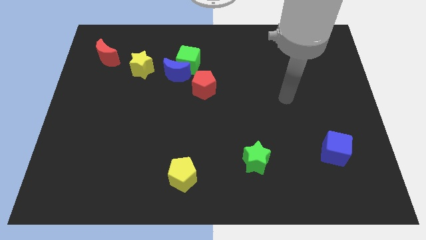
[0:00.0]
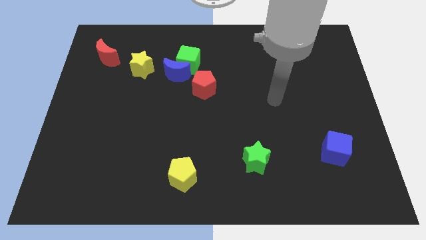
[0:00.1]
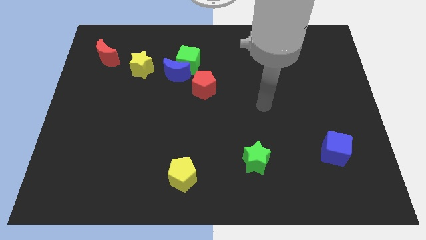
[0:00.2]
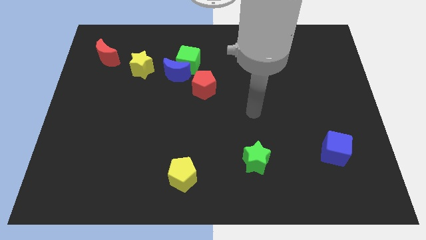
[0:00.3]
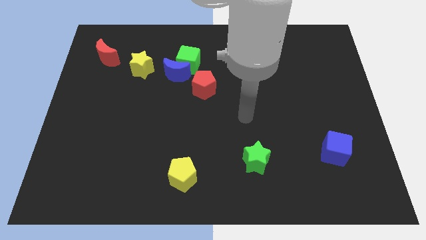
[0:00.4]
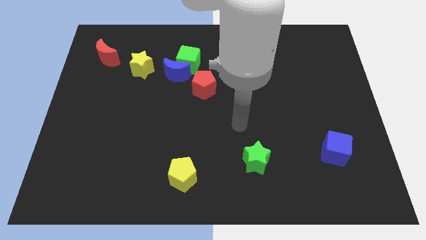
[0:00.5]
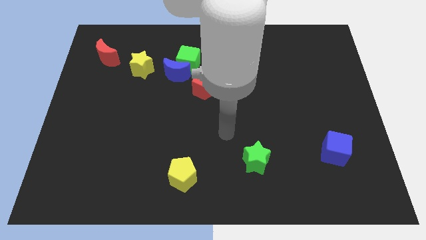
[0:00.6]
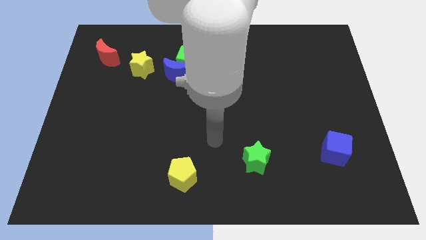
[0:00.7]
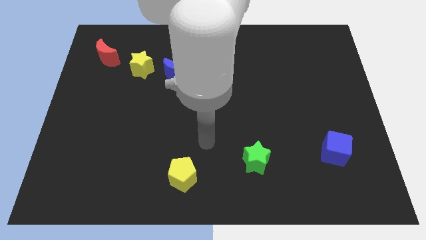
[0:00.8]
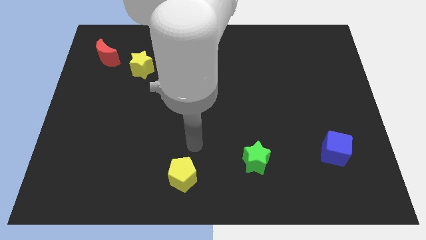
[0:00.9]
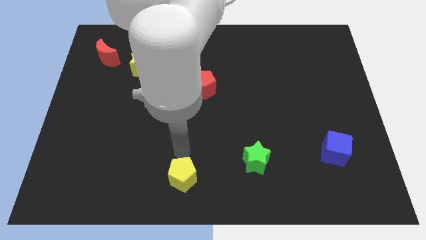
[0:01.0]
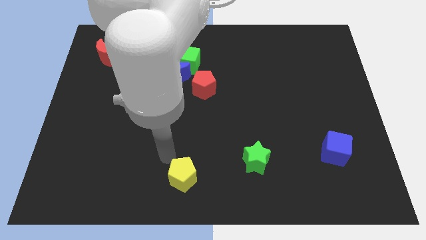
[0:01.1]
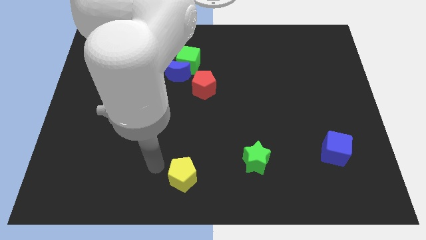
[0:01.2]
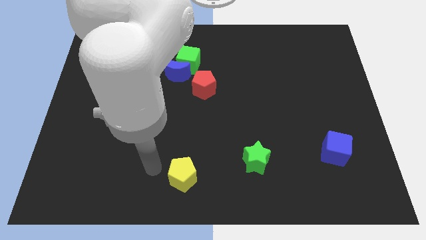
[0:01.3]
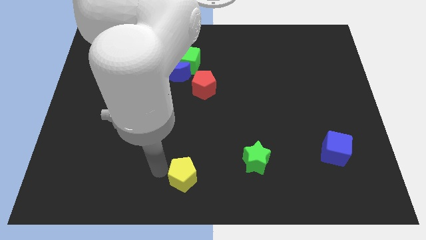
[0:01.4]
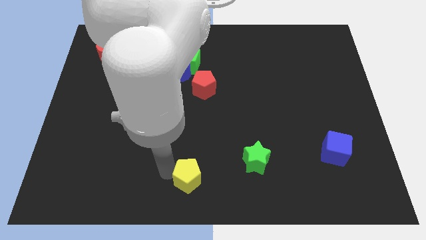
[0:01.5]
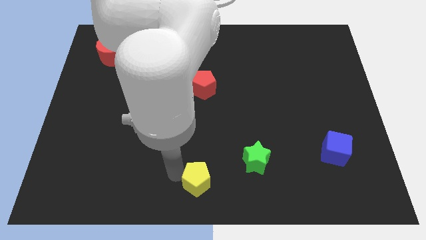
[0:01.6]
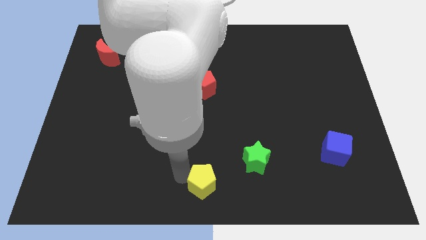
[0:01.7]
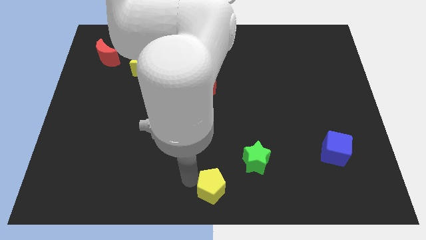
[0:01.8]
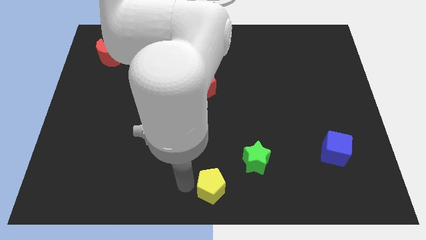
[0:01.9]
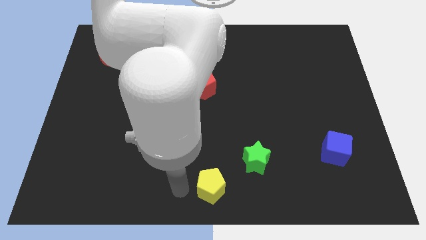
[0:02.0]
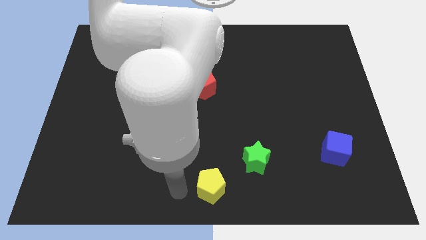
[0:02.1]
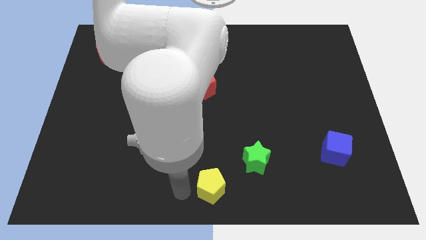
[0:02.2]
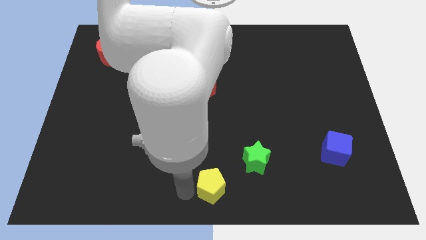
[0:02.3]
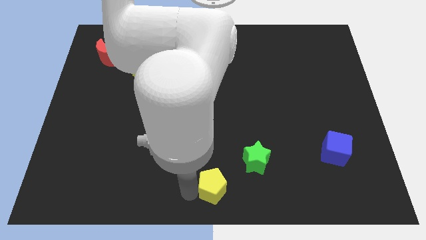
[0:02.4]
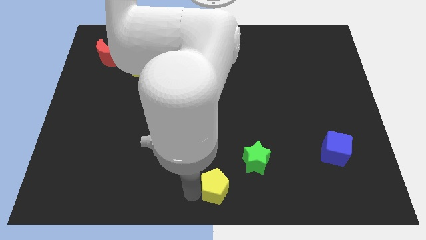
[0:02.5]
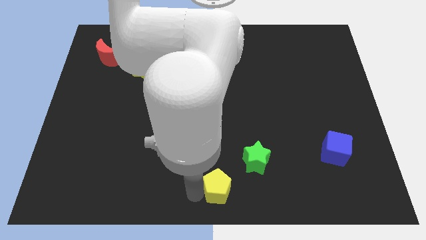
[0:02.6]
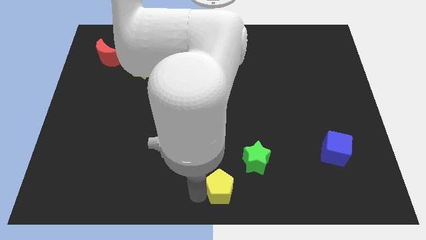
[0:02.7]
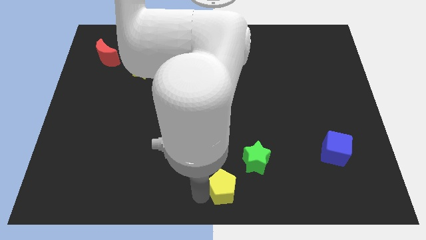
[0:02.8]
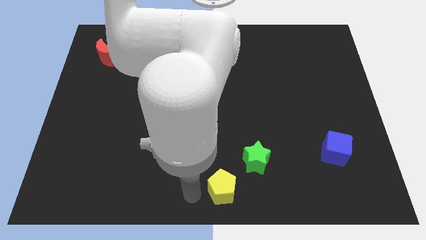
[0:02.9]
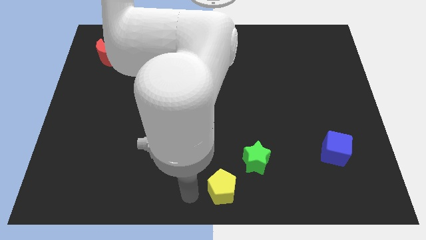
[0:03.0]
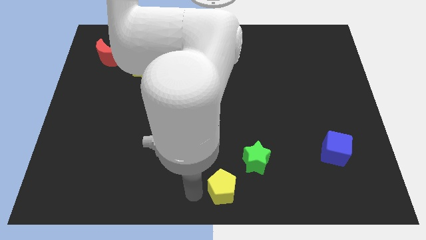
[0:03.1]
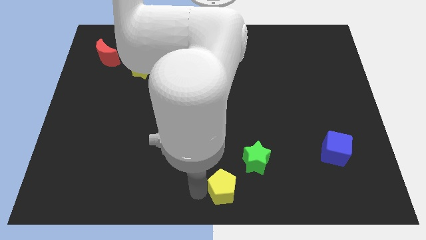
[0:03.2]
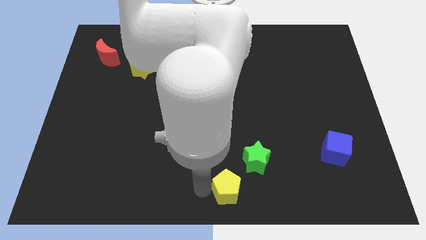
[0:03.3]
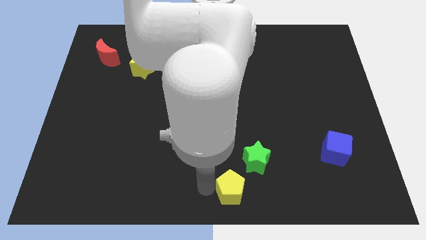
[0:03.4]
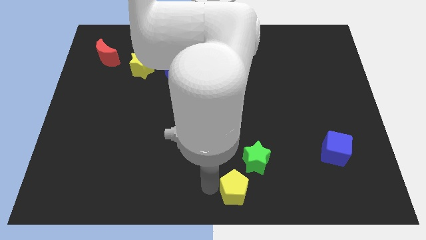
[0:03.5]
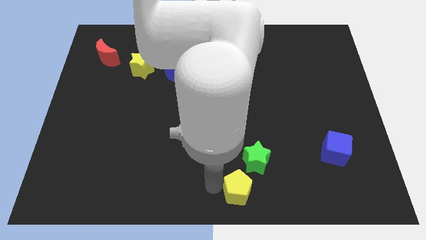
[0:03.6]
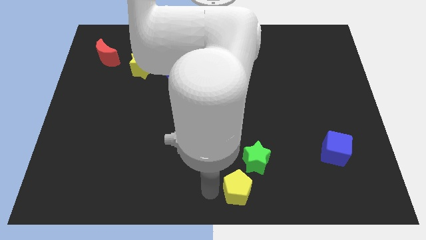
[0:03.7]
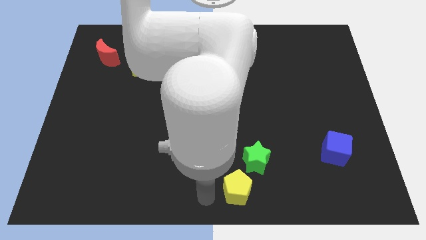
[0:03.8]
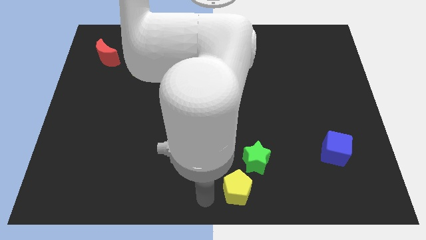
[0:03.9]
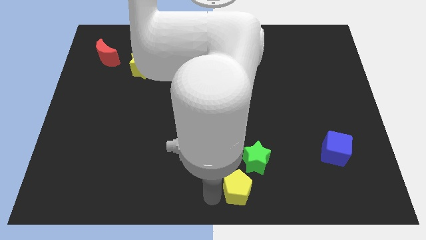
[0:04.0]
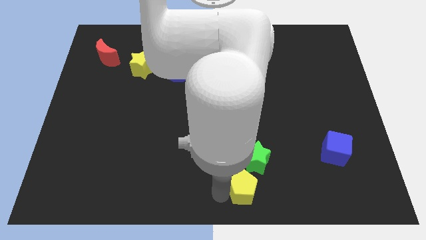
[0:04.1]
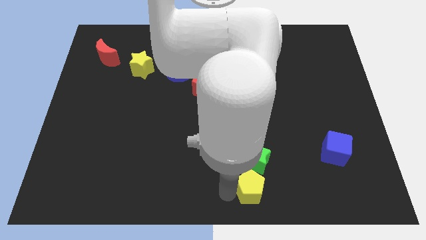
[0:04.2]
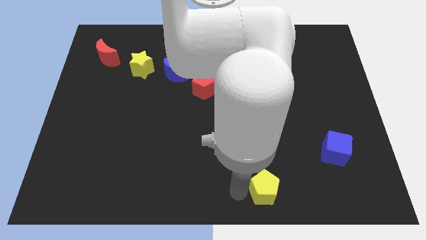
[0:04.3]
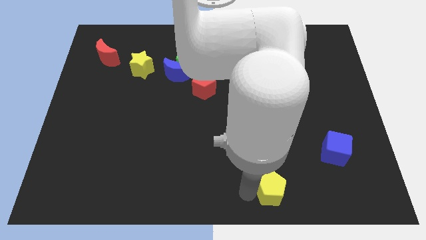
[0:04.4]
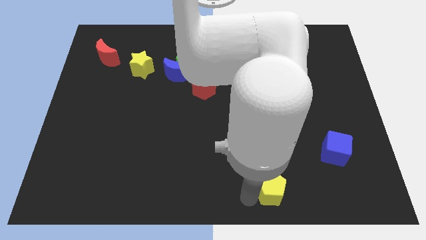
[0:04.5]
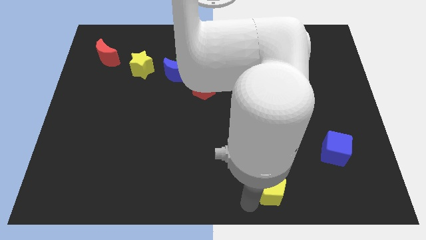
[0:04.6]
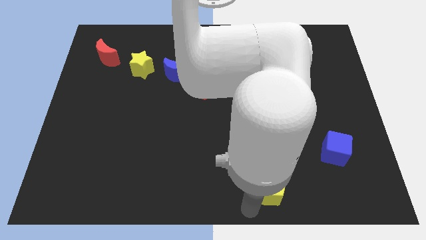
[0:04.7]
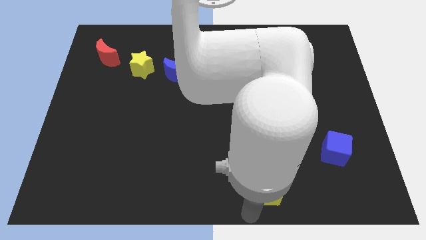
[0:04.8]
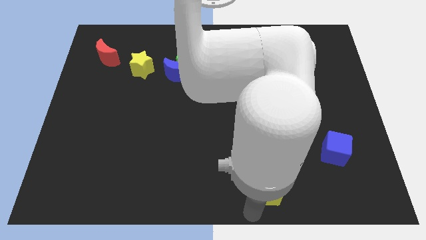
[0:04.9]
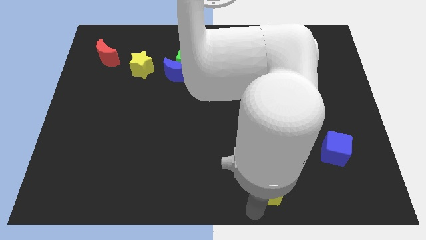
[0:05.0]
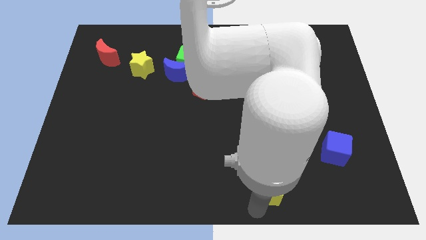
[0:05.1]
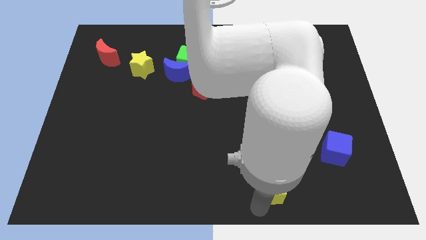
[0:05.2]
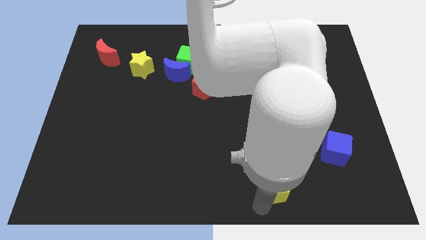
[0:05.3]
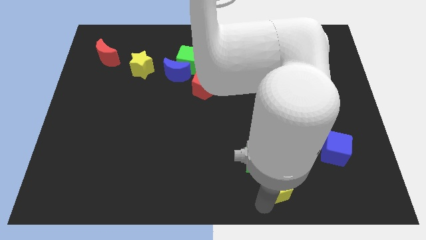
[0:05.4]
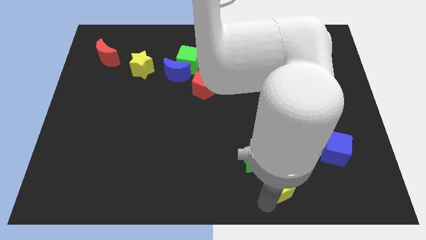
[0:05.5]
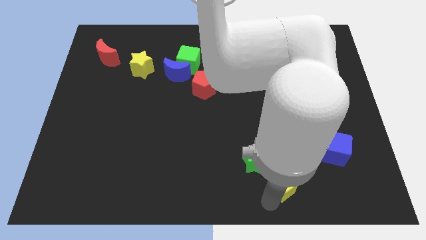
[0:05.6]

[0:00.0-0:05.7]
slide the yellow pentagon right

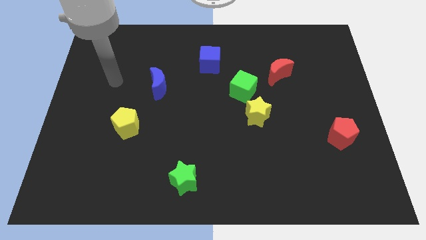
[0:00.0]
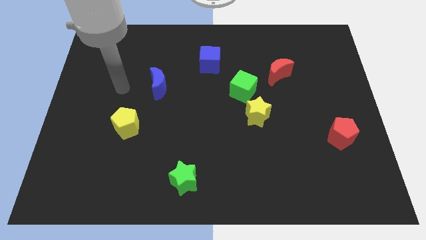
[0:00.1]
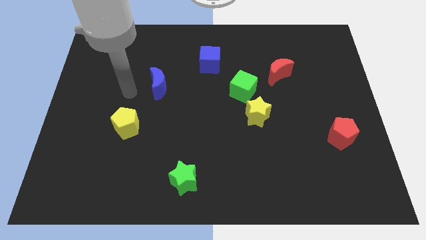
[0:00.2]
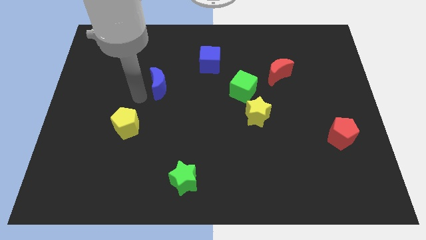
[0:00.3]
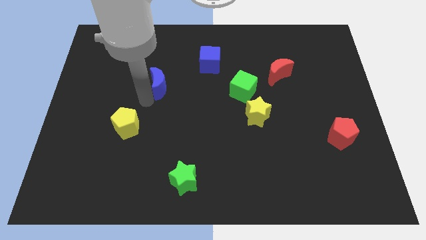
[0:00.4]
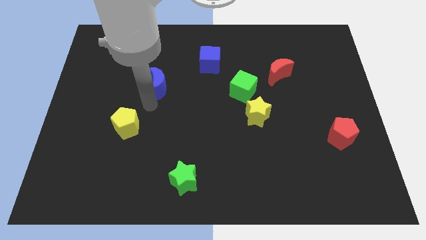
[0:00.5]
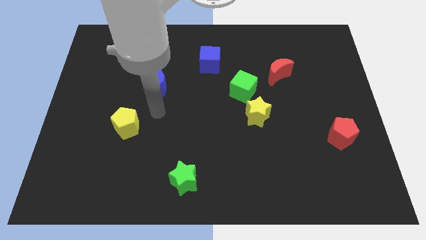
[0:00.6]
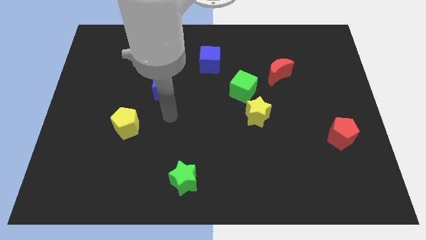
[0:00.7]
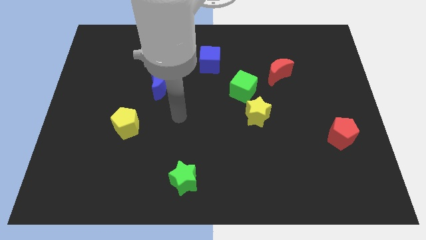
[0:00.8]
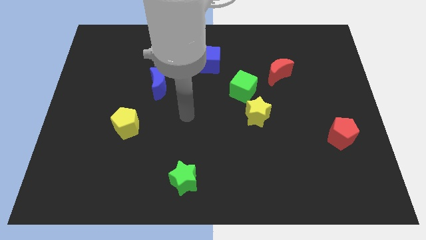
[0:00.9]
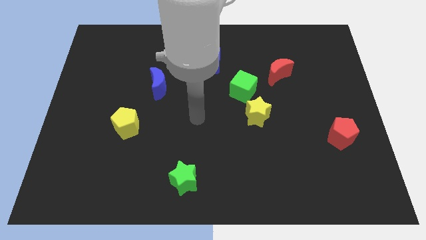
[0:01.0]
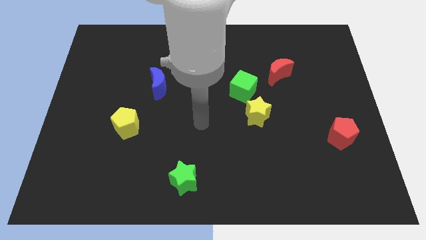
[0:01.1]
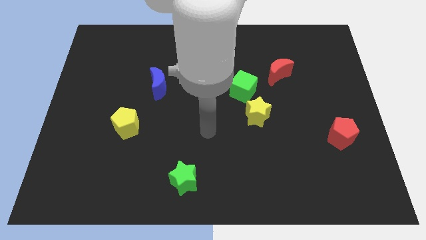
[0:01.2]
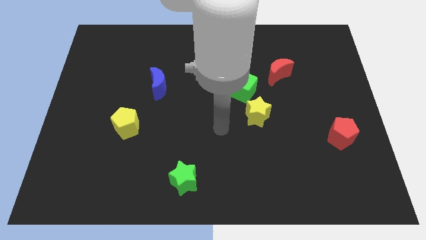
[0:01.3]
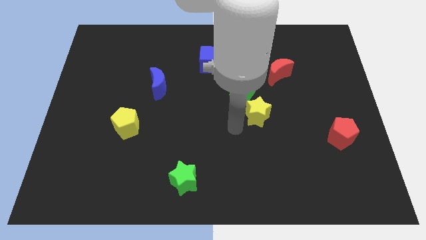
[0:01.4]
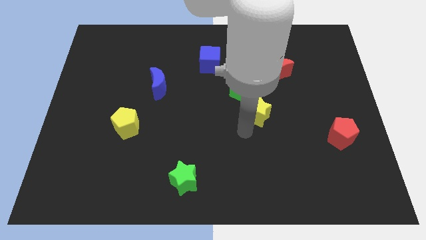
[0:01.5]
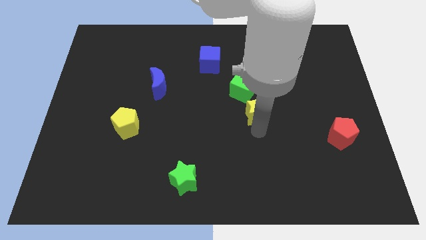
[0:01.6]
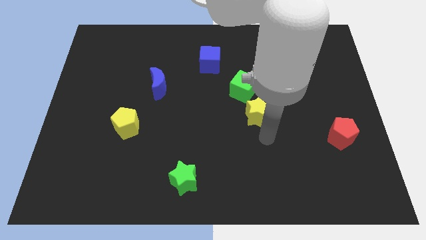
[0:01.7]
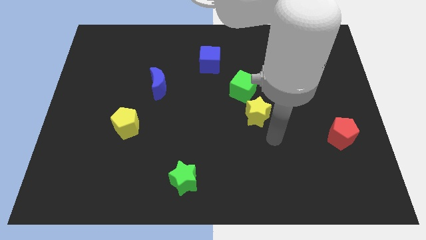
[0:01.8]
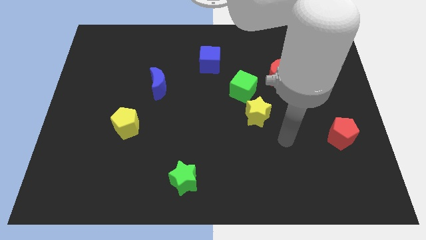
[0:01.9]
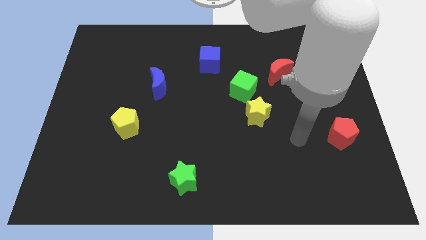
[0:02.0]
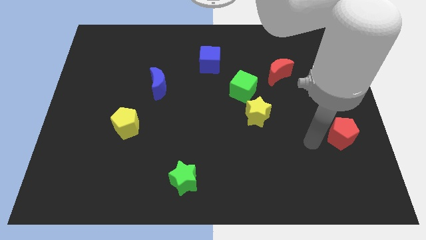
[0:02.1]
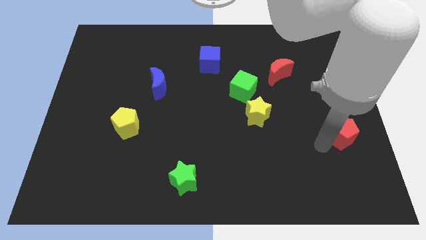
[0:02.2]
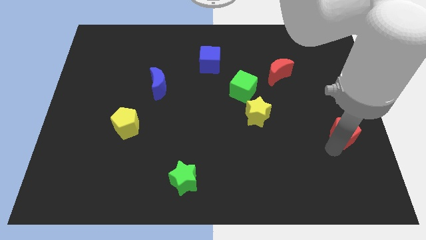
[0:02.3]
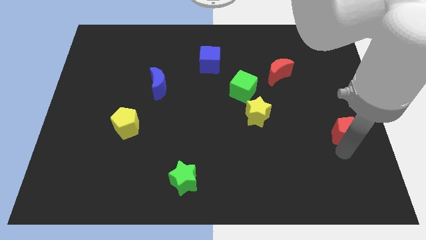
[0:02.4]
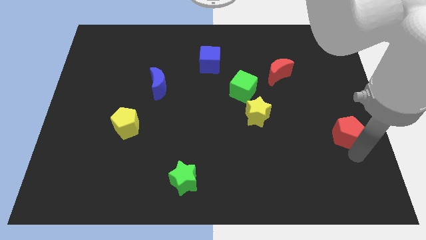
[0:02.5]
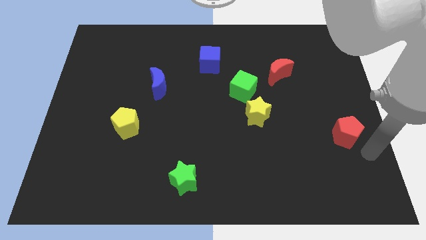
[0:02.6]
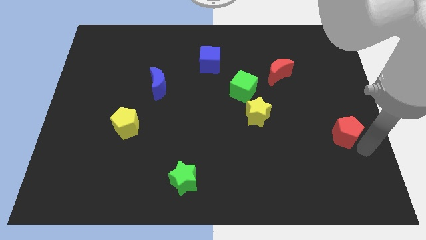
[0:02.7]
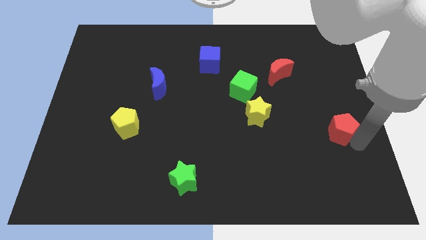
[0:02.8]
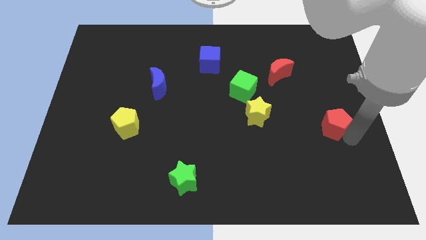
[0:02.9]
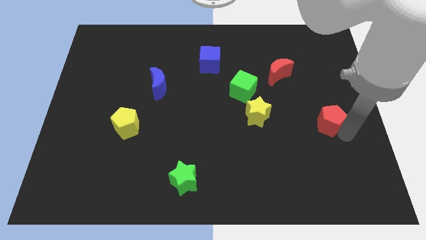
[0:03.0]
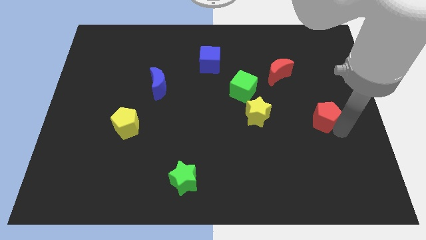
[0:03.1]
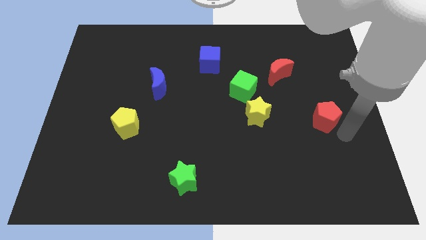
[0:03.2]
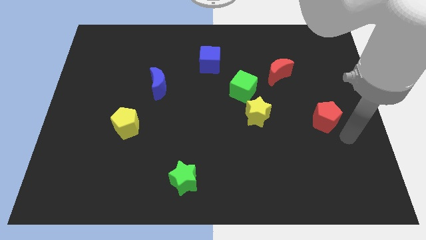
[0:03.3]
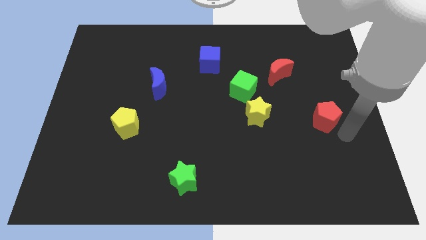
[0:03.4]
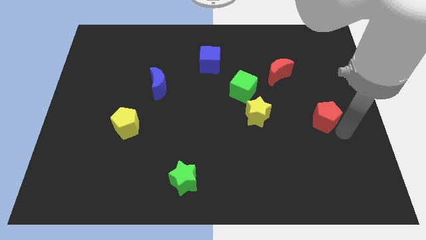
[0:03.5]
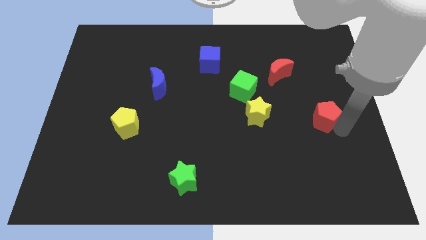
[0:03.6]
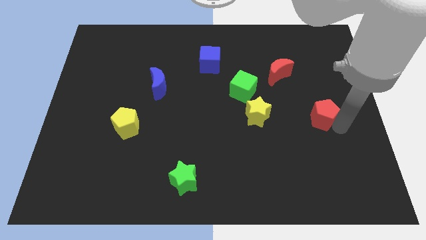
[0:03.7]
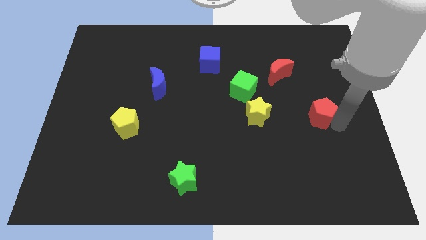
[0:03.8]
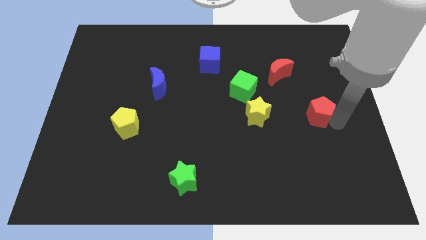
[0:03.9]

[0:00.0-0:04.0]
push the red pentagon upwards and to the left diagonally slightly
